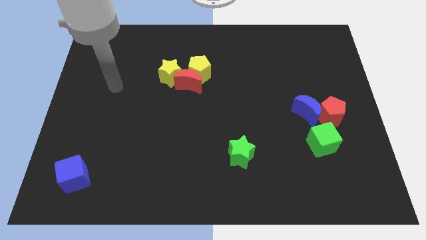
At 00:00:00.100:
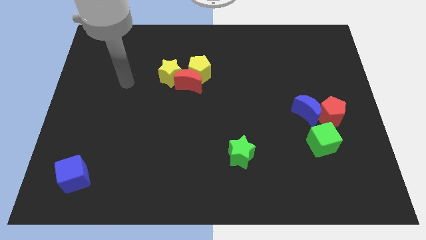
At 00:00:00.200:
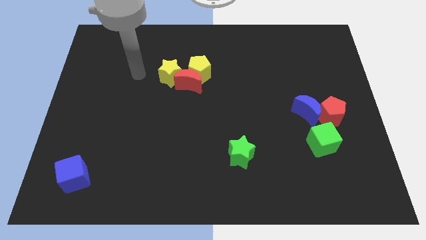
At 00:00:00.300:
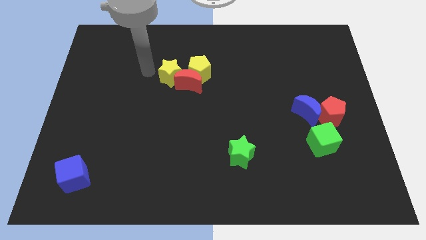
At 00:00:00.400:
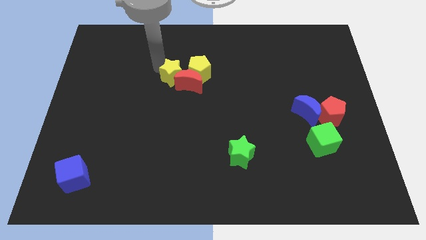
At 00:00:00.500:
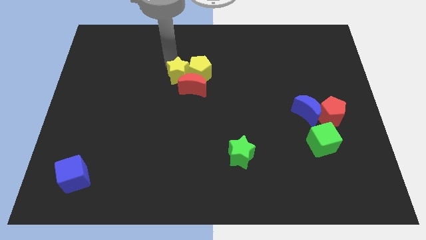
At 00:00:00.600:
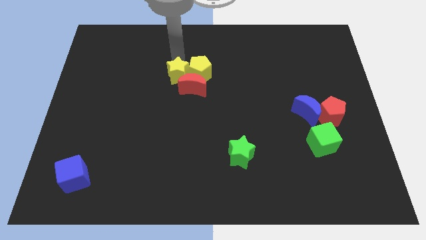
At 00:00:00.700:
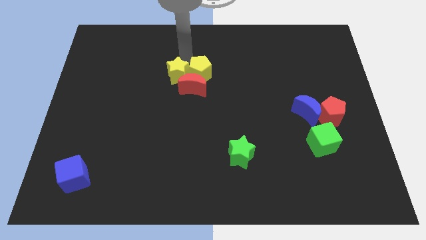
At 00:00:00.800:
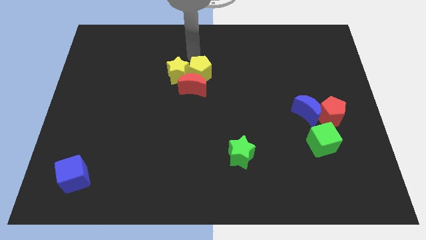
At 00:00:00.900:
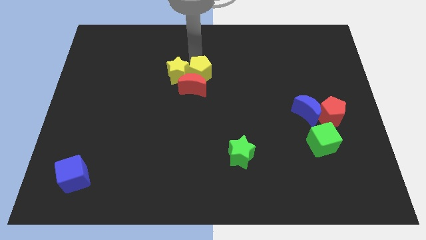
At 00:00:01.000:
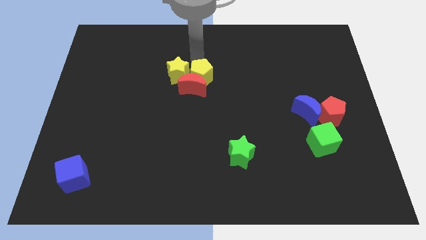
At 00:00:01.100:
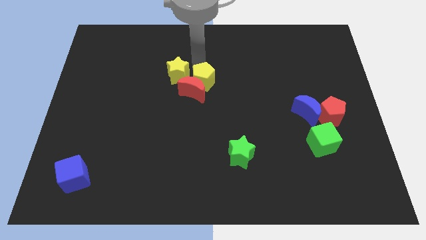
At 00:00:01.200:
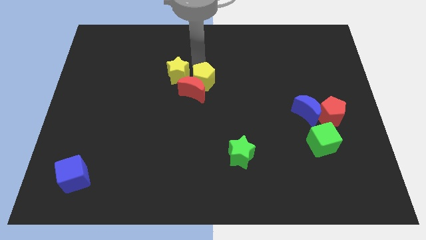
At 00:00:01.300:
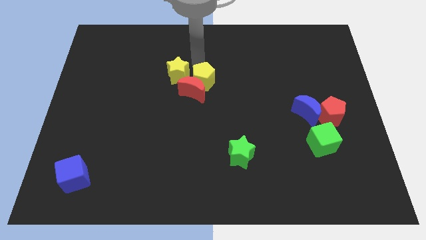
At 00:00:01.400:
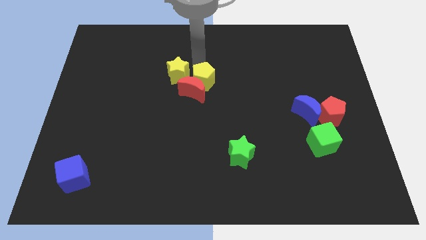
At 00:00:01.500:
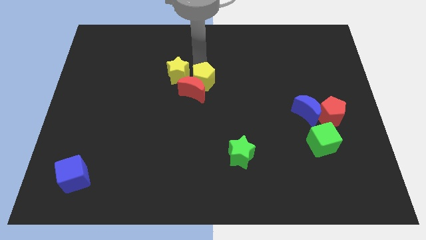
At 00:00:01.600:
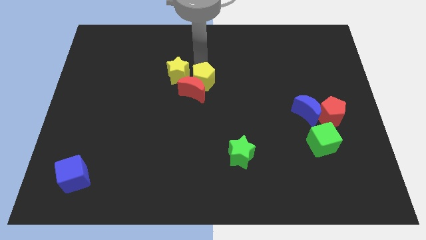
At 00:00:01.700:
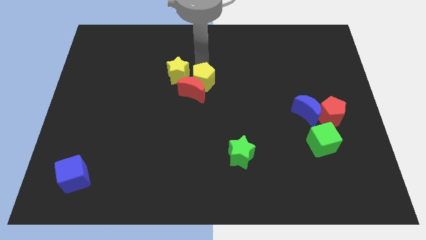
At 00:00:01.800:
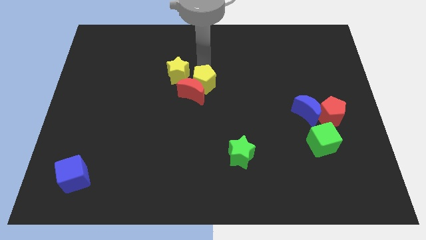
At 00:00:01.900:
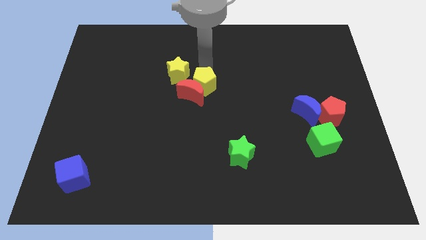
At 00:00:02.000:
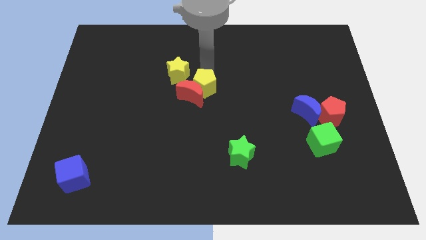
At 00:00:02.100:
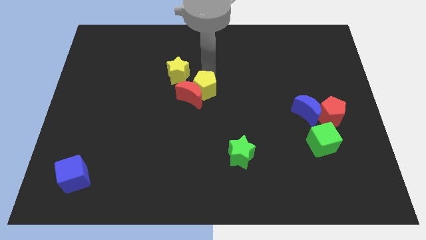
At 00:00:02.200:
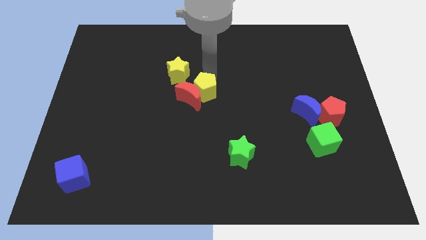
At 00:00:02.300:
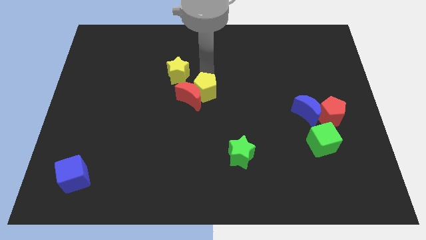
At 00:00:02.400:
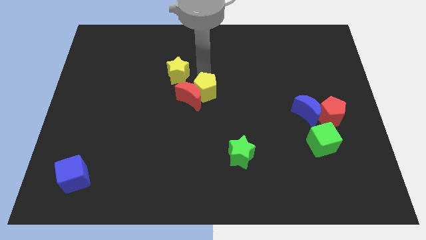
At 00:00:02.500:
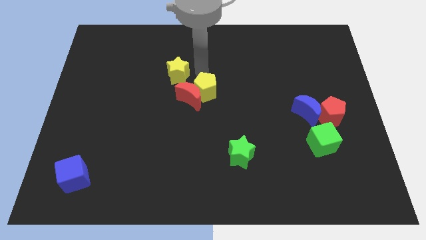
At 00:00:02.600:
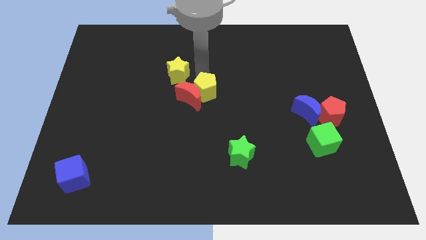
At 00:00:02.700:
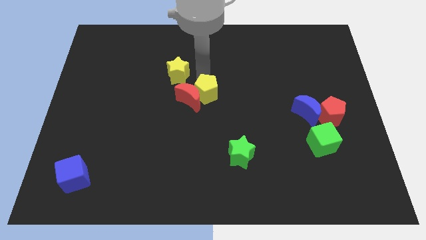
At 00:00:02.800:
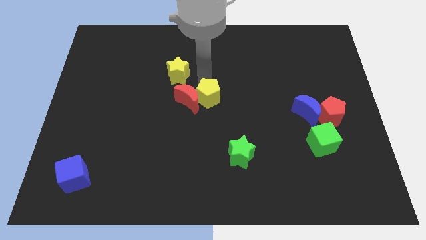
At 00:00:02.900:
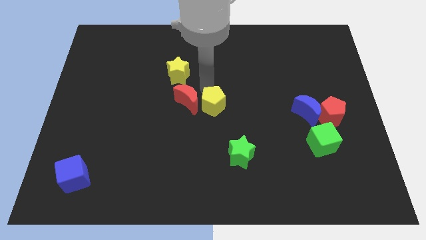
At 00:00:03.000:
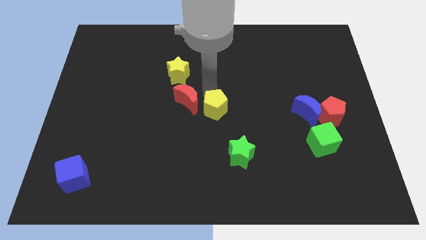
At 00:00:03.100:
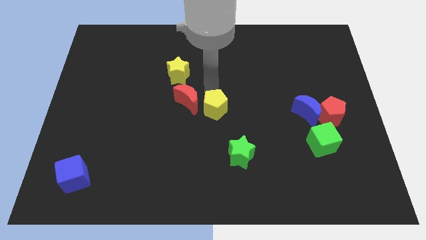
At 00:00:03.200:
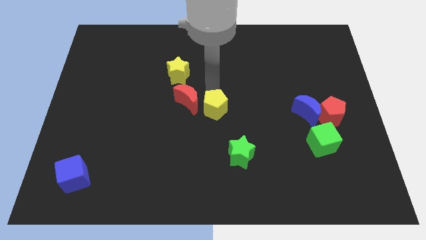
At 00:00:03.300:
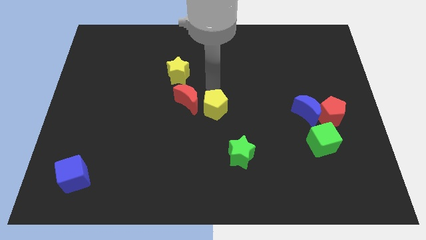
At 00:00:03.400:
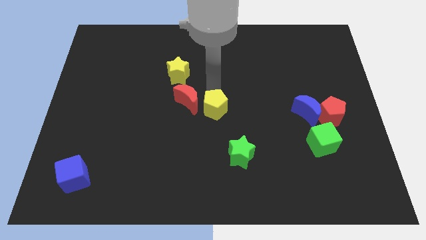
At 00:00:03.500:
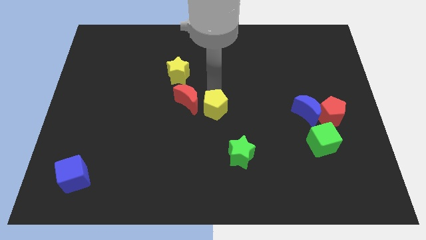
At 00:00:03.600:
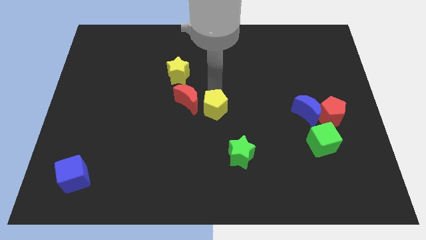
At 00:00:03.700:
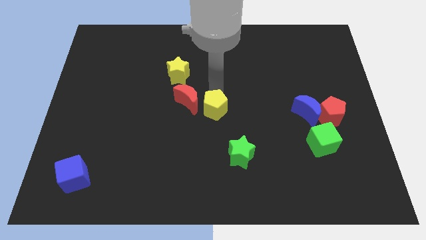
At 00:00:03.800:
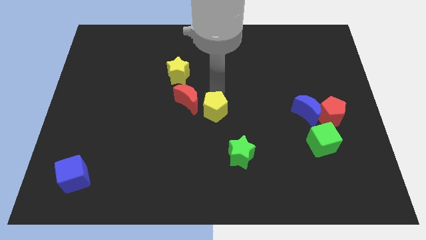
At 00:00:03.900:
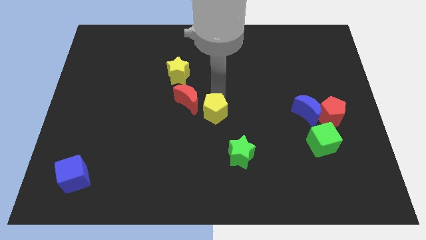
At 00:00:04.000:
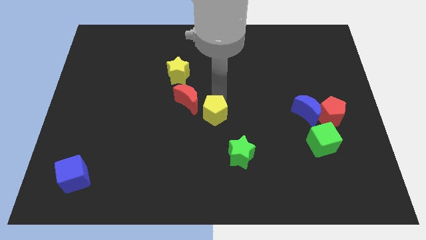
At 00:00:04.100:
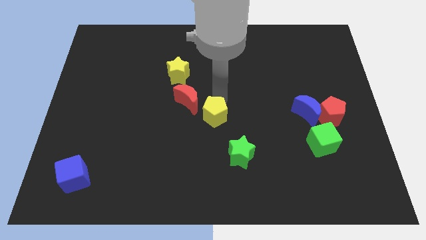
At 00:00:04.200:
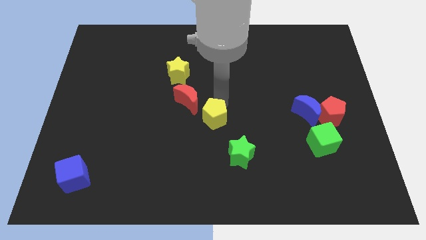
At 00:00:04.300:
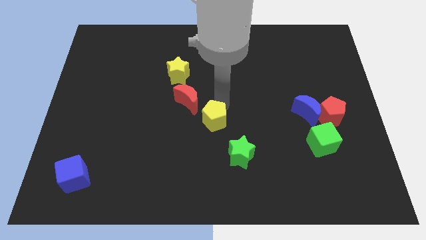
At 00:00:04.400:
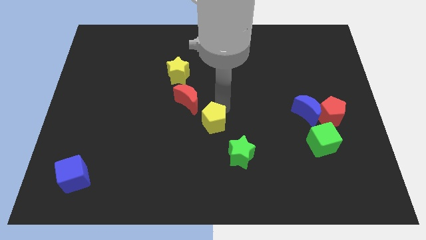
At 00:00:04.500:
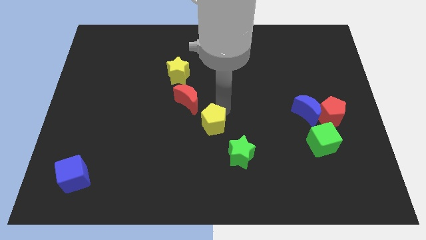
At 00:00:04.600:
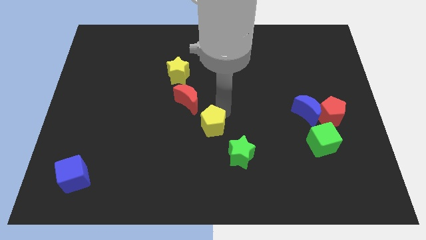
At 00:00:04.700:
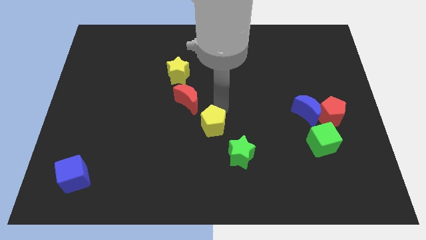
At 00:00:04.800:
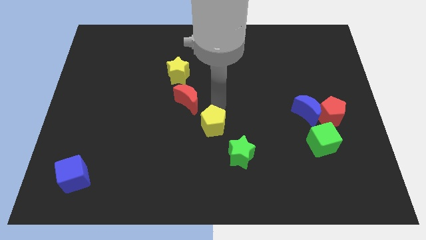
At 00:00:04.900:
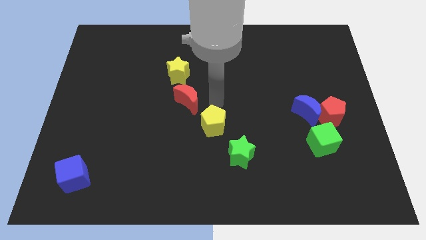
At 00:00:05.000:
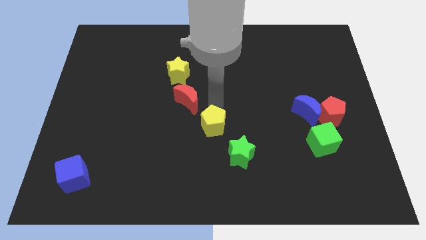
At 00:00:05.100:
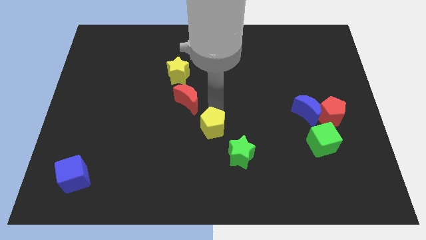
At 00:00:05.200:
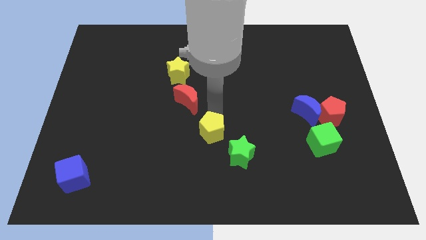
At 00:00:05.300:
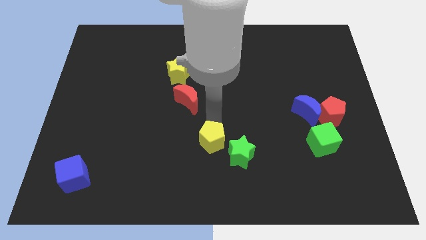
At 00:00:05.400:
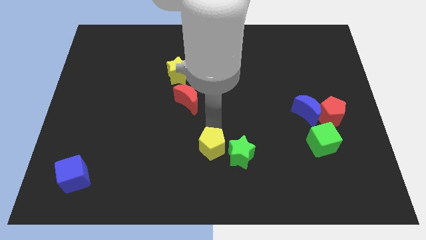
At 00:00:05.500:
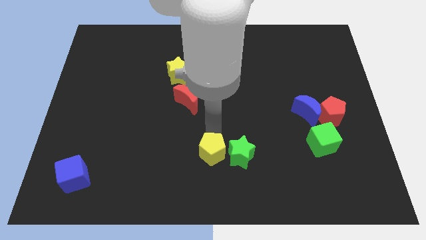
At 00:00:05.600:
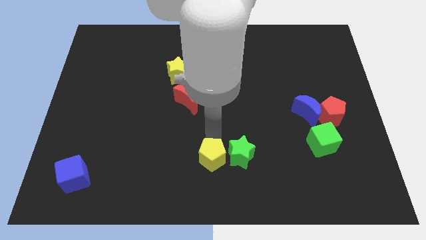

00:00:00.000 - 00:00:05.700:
push the yellow pentagon to the bottom side
